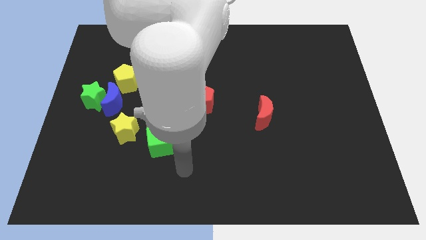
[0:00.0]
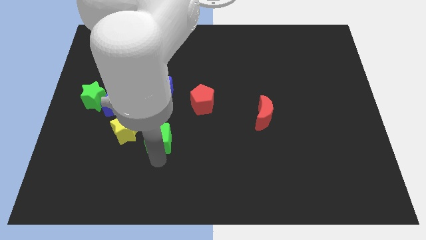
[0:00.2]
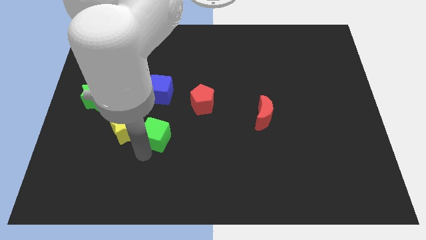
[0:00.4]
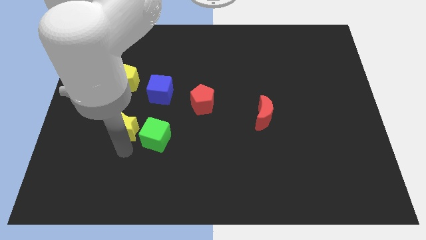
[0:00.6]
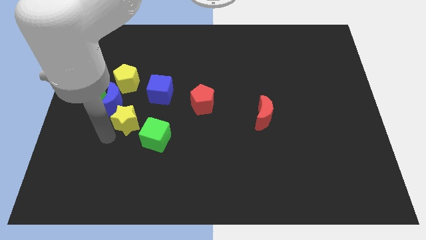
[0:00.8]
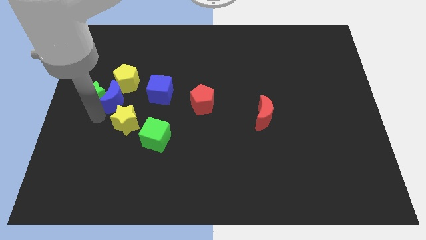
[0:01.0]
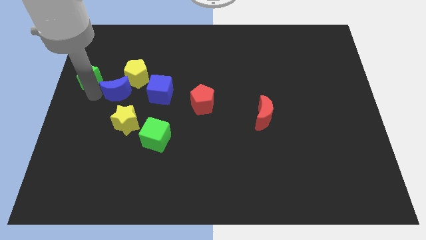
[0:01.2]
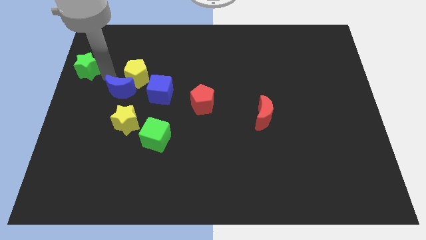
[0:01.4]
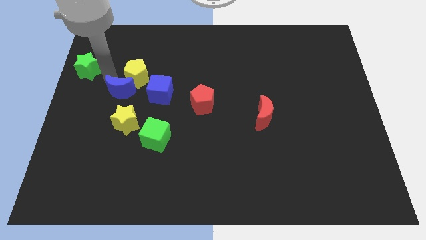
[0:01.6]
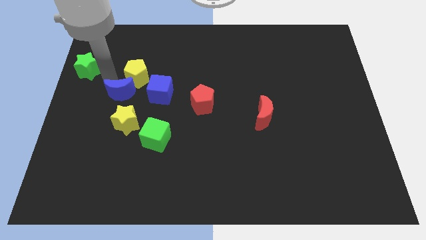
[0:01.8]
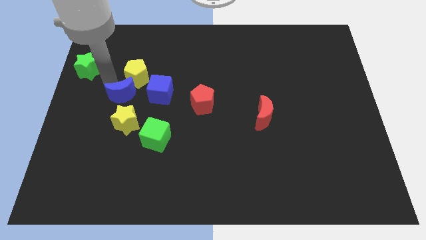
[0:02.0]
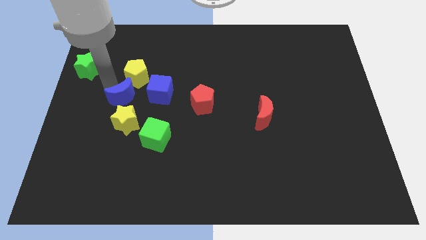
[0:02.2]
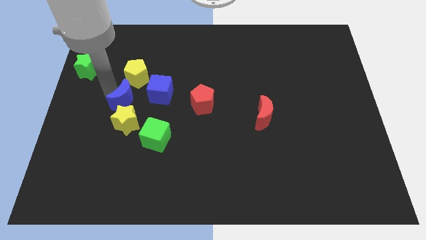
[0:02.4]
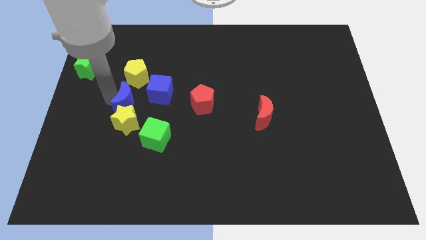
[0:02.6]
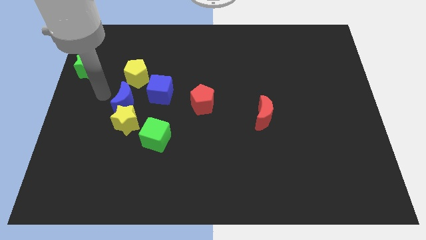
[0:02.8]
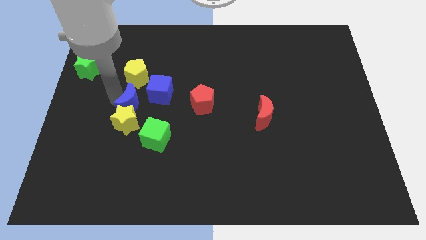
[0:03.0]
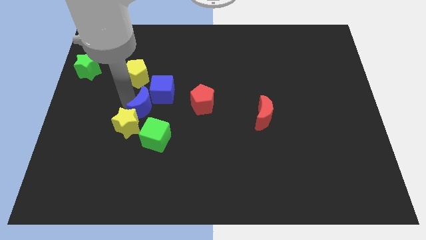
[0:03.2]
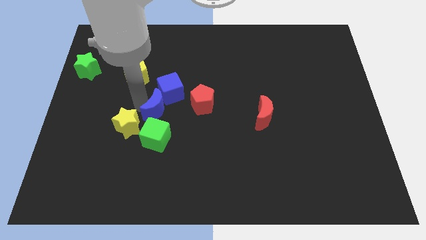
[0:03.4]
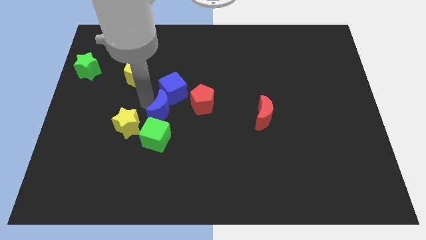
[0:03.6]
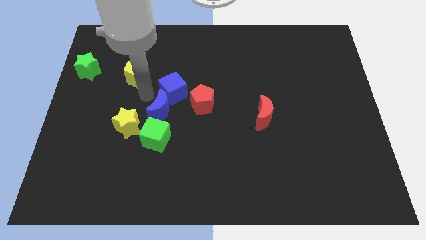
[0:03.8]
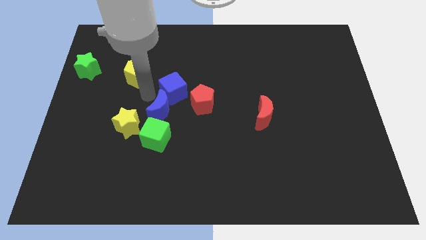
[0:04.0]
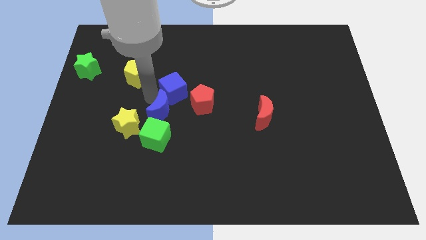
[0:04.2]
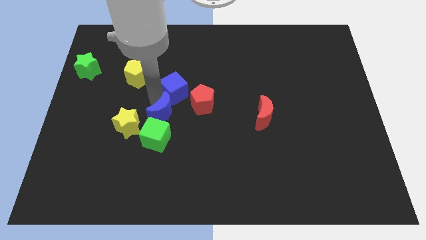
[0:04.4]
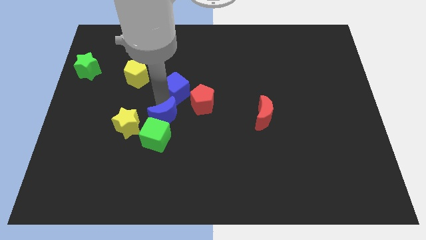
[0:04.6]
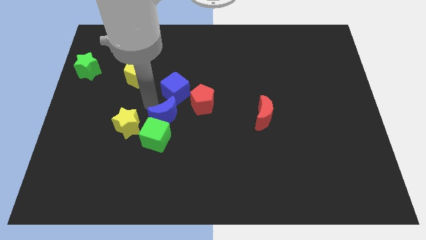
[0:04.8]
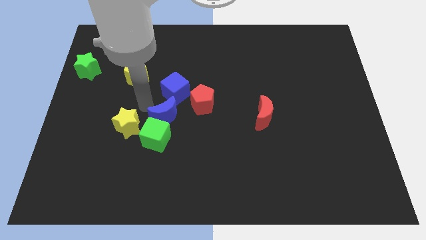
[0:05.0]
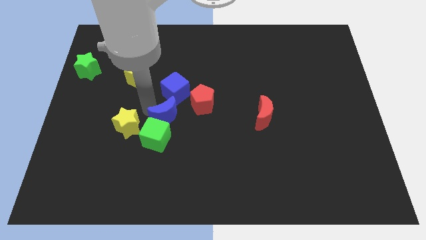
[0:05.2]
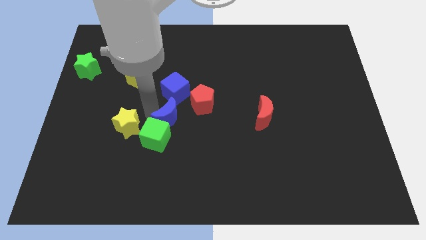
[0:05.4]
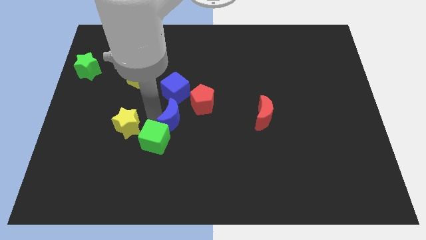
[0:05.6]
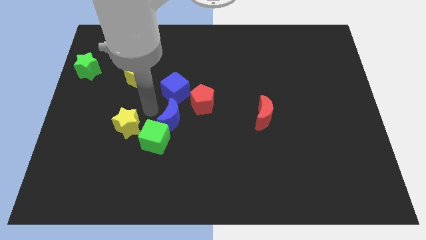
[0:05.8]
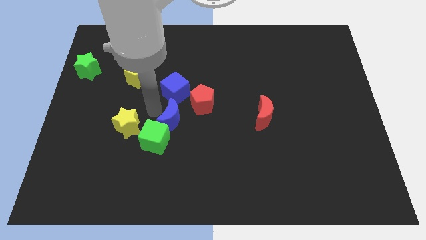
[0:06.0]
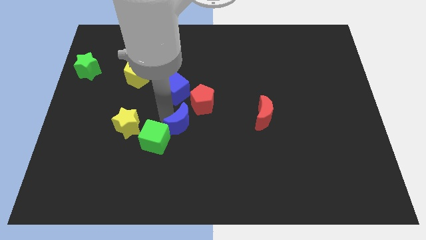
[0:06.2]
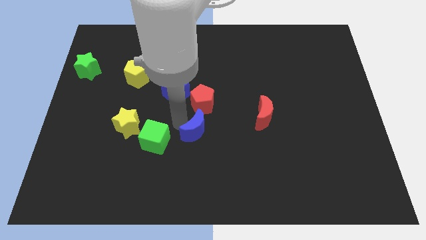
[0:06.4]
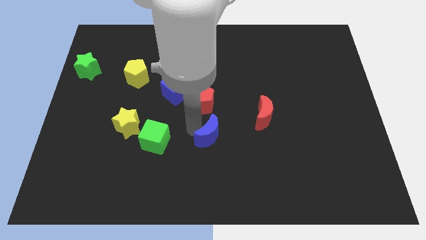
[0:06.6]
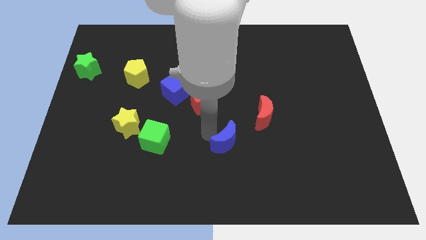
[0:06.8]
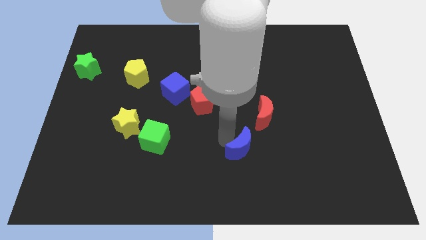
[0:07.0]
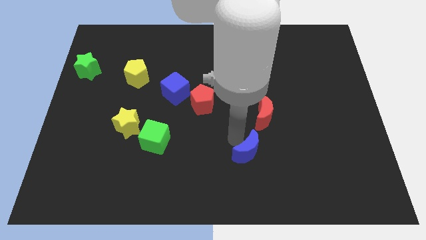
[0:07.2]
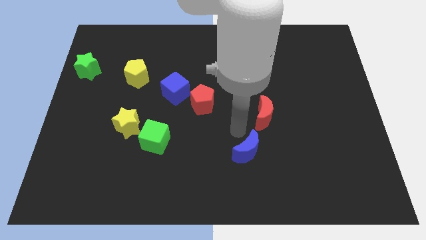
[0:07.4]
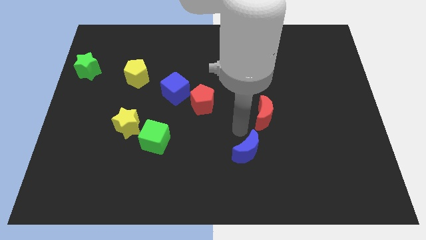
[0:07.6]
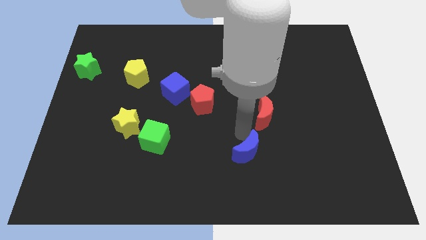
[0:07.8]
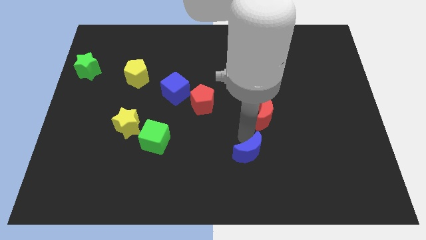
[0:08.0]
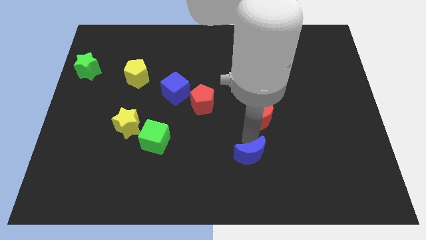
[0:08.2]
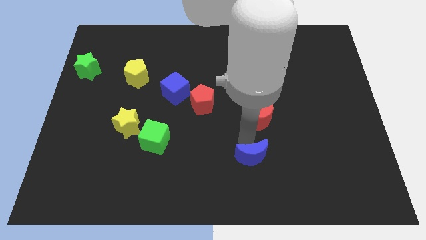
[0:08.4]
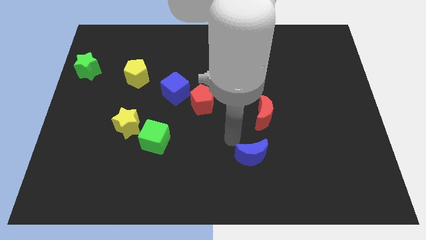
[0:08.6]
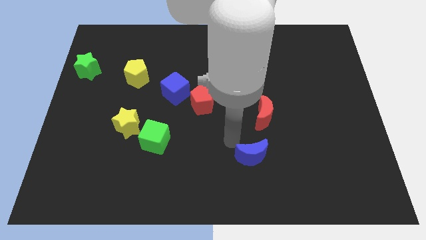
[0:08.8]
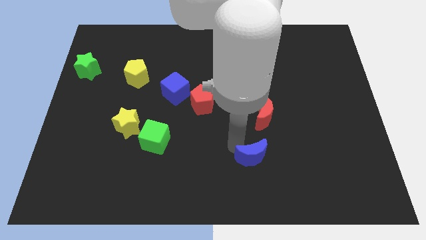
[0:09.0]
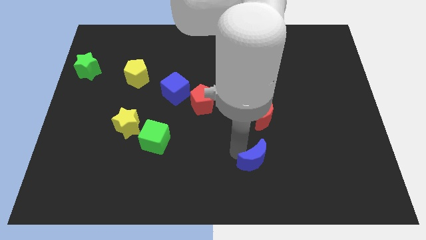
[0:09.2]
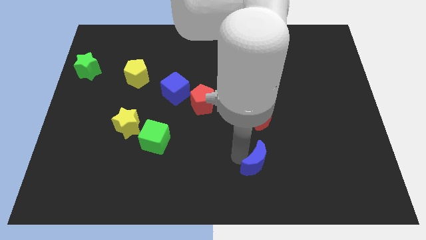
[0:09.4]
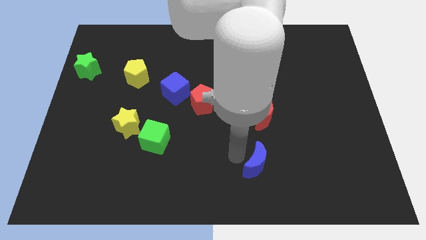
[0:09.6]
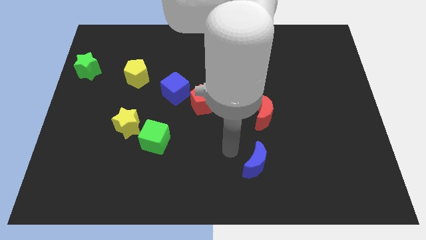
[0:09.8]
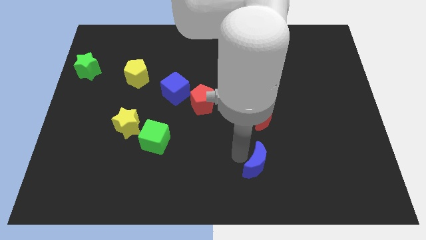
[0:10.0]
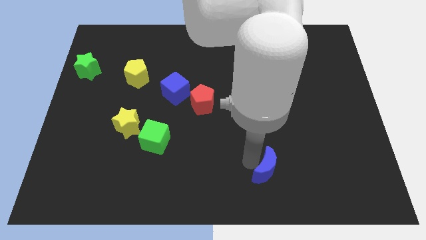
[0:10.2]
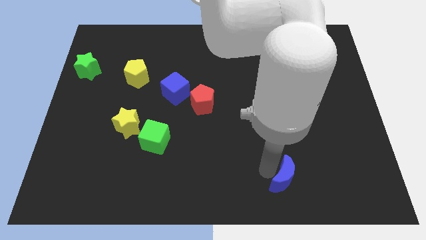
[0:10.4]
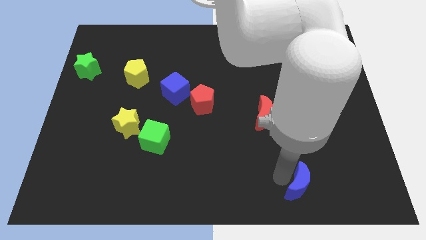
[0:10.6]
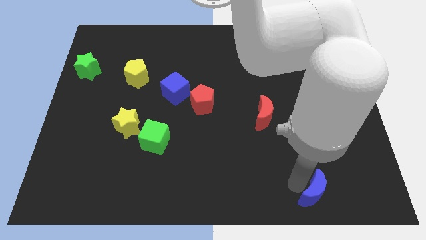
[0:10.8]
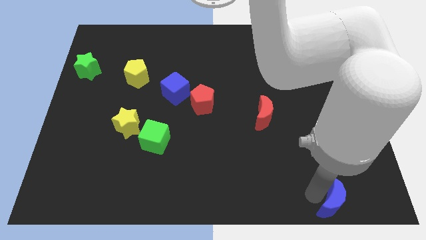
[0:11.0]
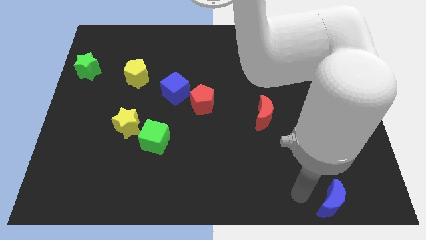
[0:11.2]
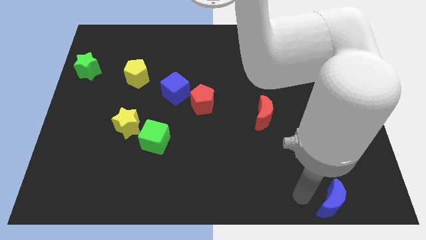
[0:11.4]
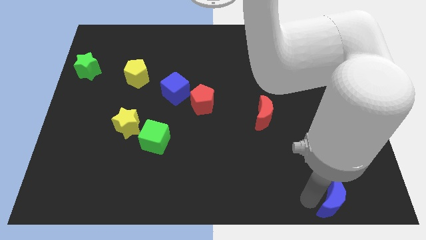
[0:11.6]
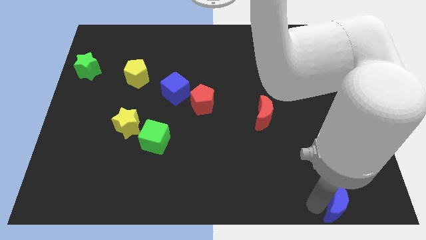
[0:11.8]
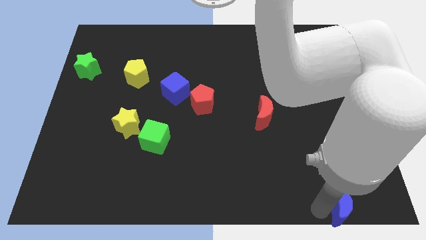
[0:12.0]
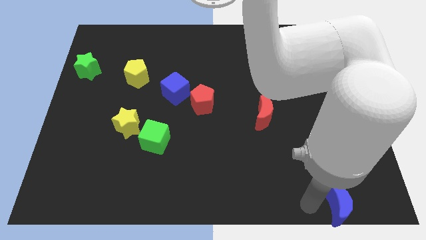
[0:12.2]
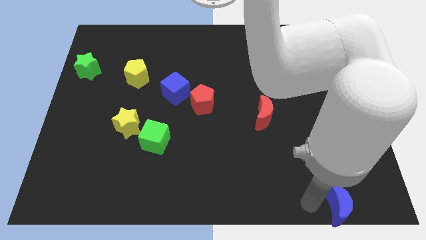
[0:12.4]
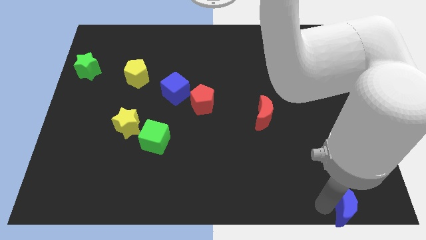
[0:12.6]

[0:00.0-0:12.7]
push the blue moon to the lower right corner
